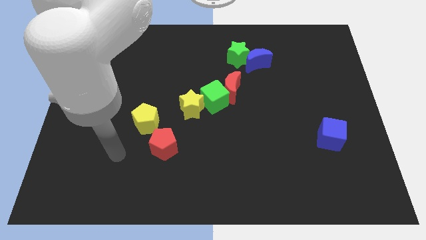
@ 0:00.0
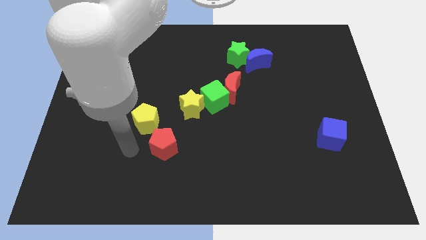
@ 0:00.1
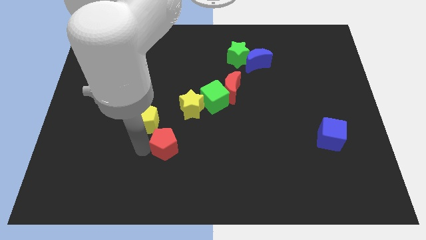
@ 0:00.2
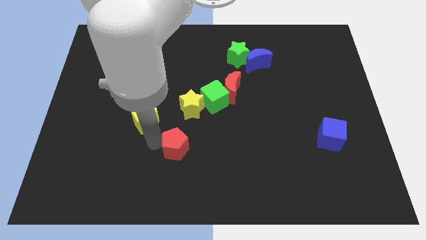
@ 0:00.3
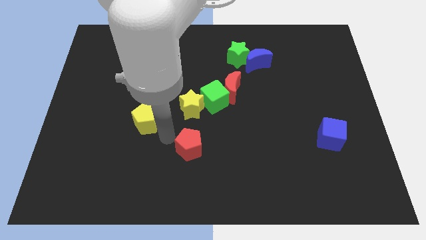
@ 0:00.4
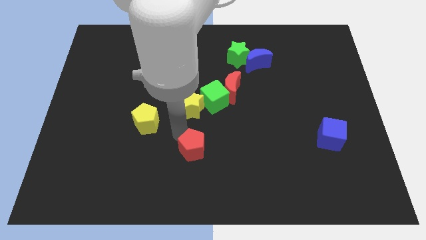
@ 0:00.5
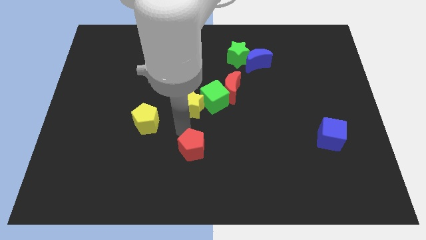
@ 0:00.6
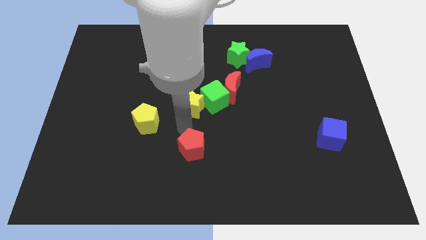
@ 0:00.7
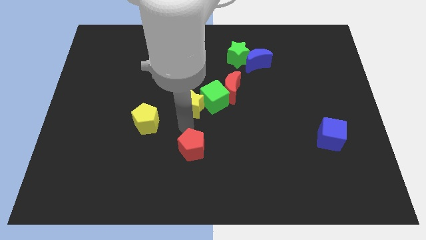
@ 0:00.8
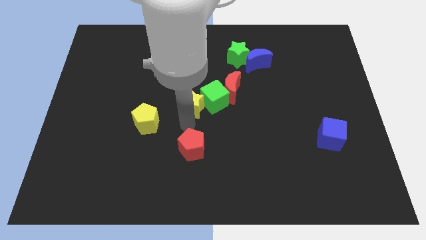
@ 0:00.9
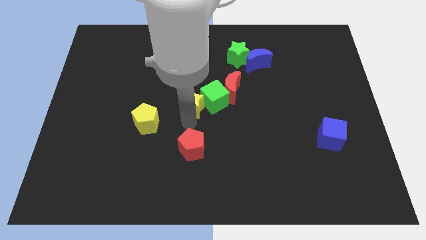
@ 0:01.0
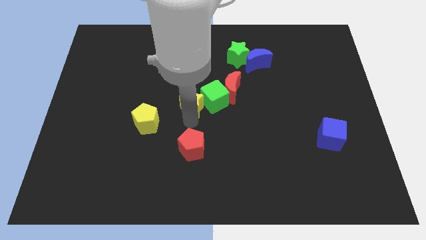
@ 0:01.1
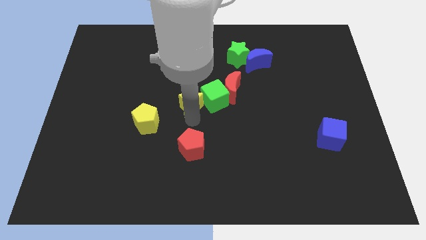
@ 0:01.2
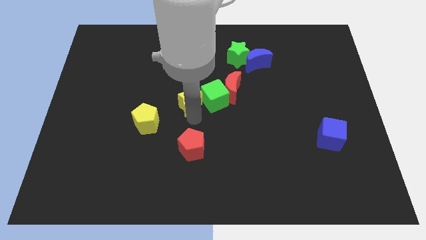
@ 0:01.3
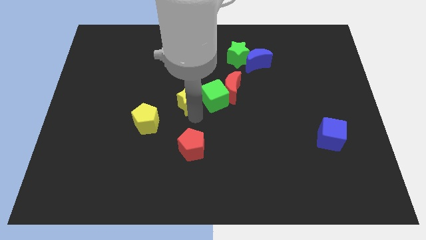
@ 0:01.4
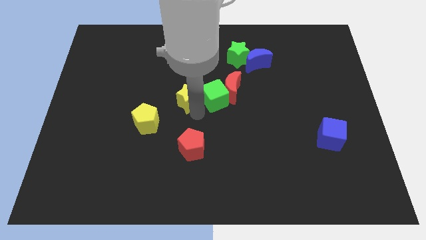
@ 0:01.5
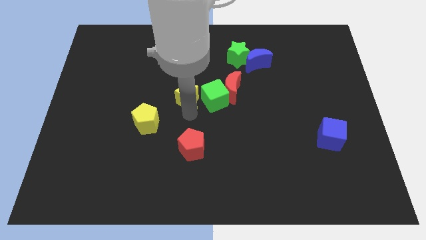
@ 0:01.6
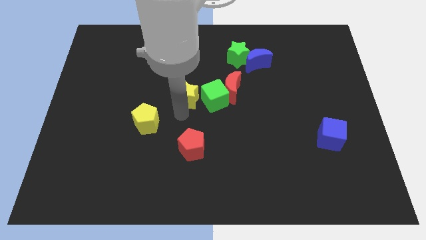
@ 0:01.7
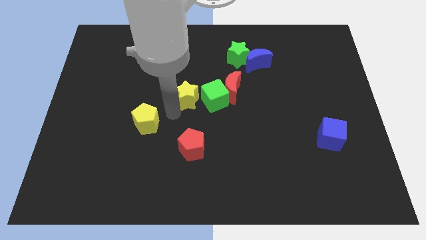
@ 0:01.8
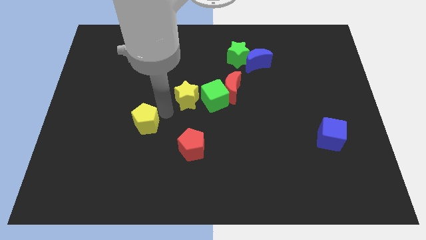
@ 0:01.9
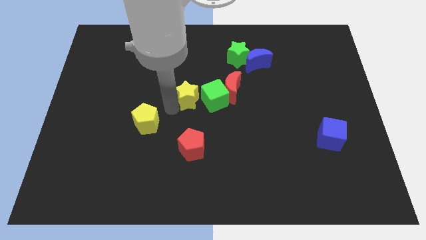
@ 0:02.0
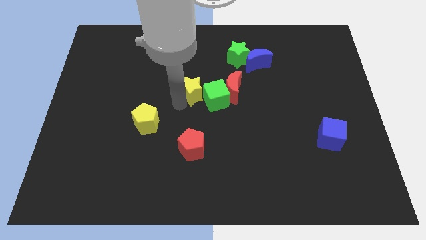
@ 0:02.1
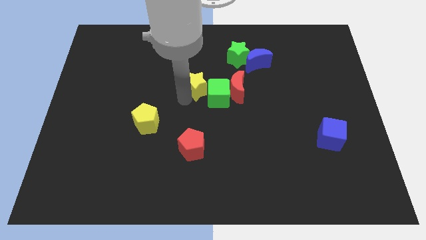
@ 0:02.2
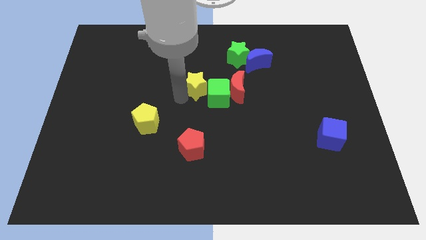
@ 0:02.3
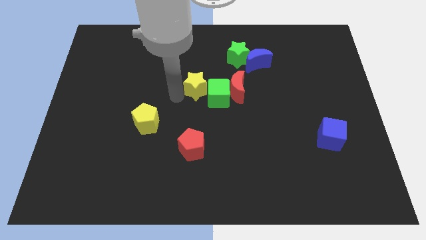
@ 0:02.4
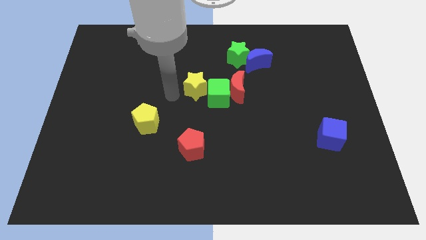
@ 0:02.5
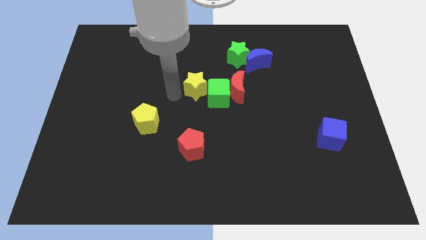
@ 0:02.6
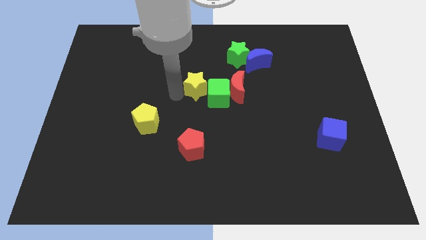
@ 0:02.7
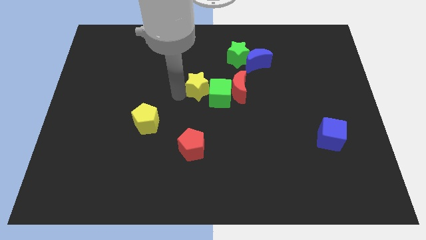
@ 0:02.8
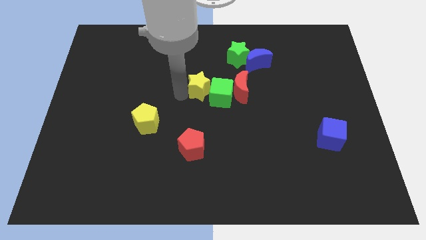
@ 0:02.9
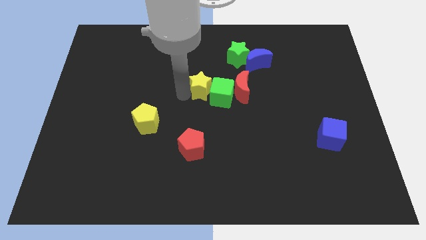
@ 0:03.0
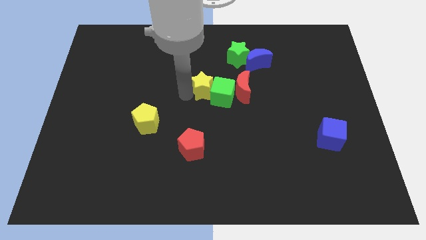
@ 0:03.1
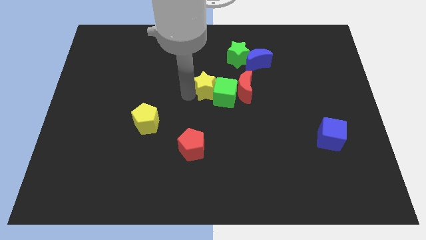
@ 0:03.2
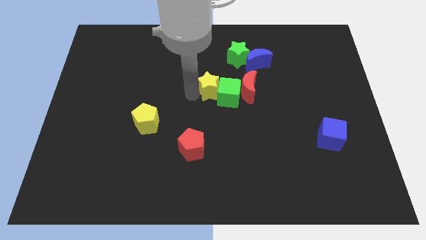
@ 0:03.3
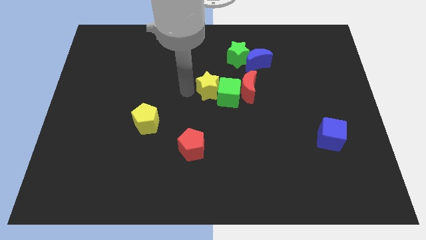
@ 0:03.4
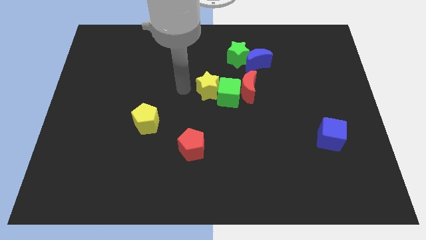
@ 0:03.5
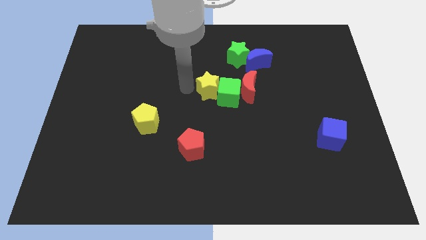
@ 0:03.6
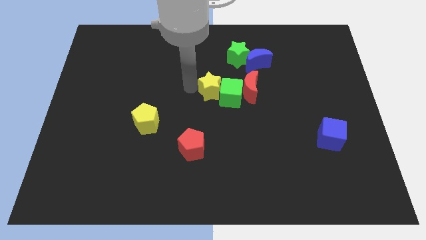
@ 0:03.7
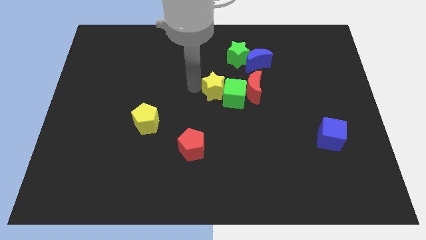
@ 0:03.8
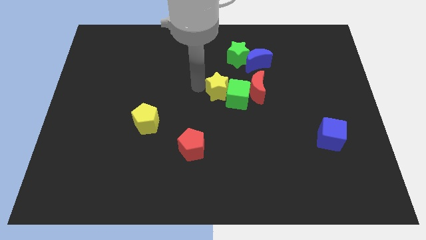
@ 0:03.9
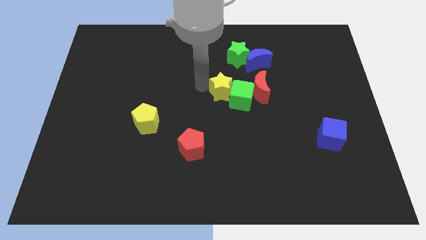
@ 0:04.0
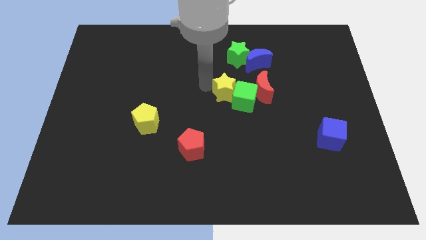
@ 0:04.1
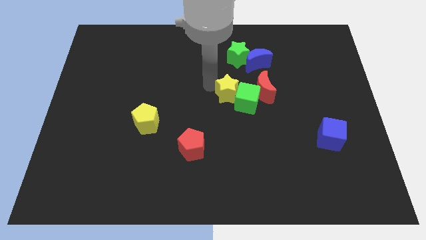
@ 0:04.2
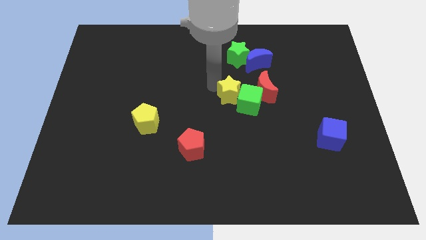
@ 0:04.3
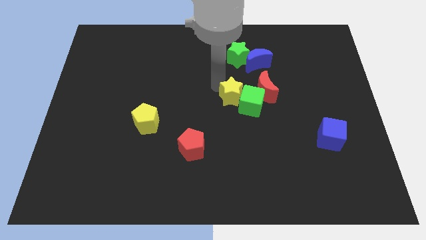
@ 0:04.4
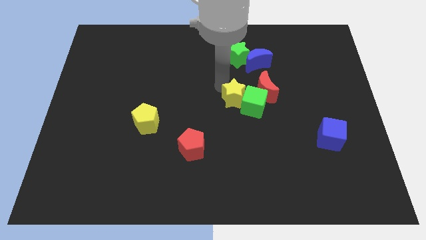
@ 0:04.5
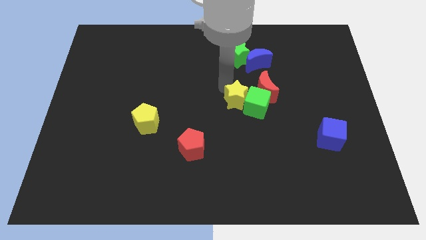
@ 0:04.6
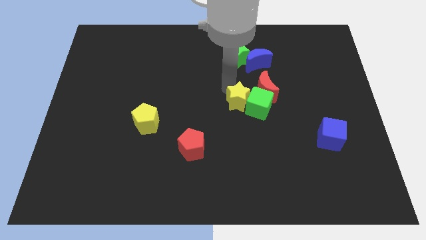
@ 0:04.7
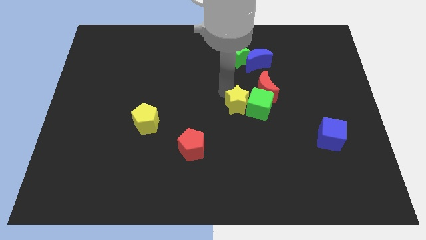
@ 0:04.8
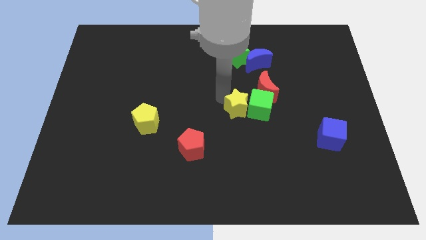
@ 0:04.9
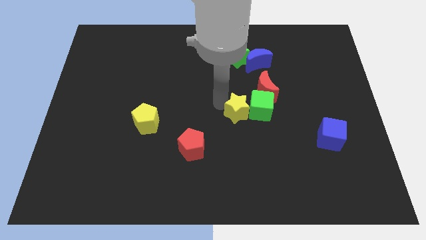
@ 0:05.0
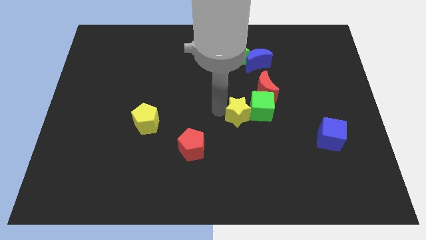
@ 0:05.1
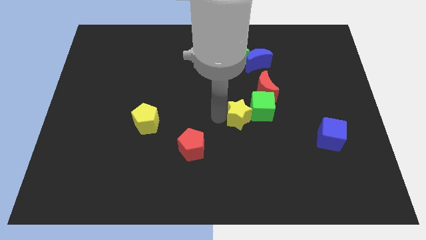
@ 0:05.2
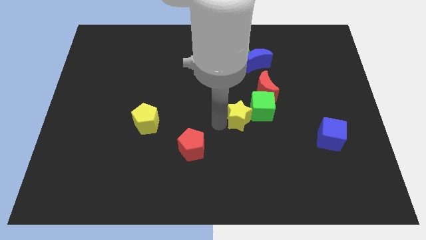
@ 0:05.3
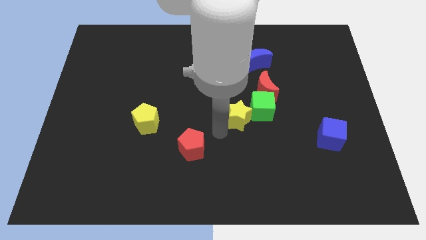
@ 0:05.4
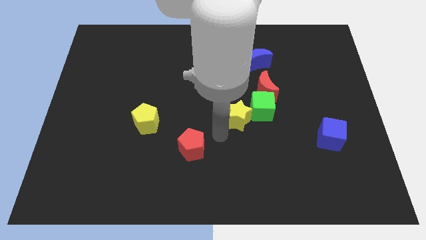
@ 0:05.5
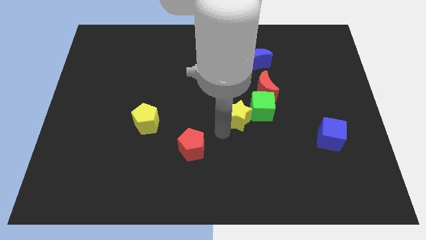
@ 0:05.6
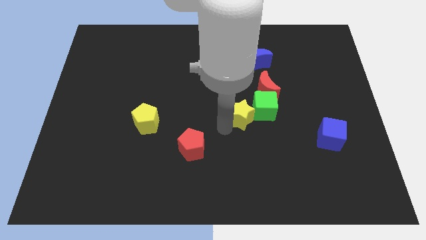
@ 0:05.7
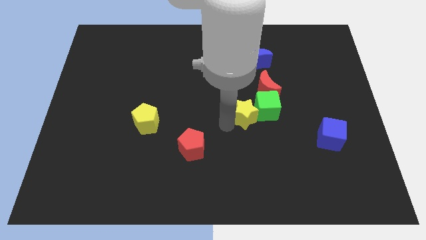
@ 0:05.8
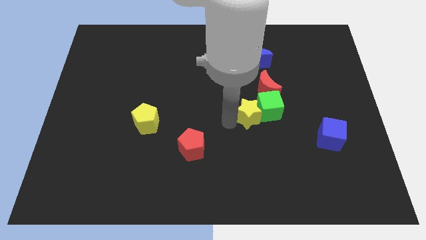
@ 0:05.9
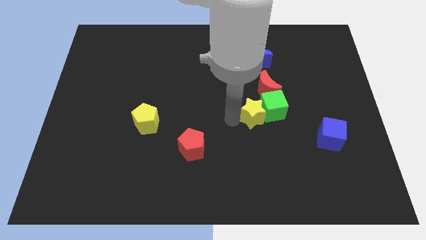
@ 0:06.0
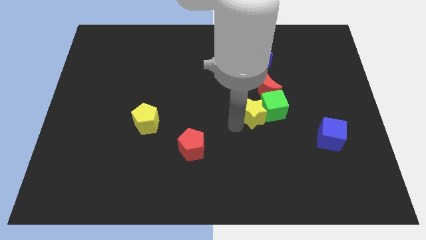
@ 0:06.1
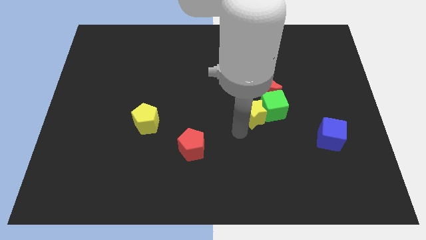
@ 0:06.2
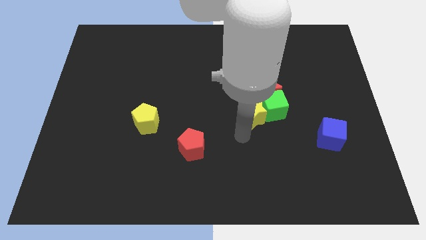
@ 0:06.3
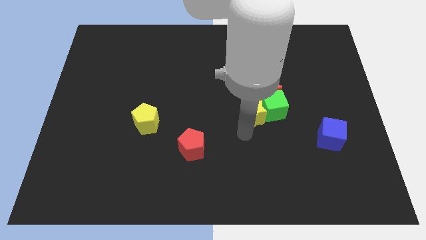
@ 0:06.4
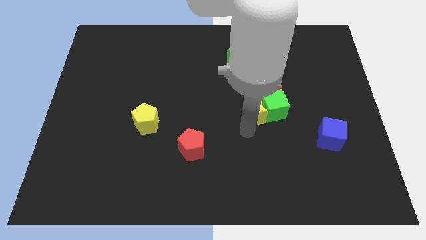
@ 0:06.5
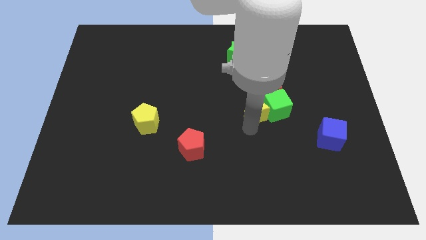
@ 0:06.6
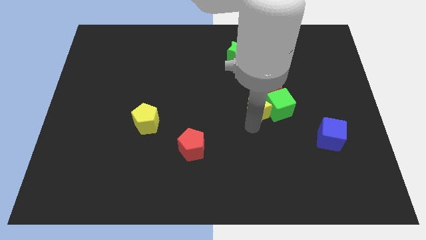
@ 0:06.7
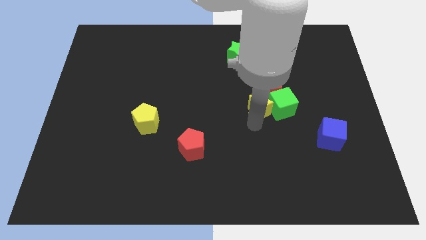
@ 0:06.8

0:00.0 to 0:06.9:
move the yellow star towards the red moon
